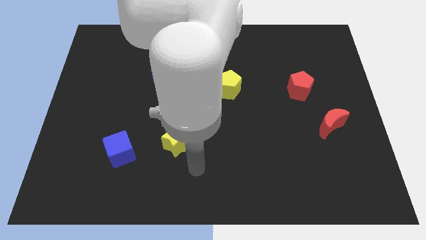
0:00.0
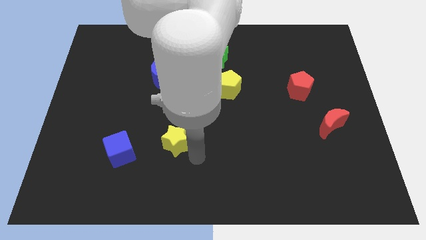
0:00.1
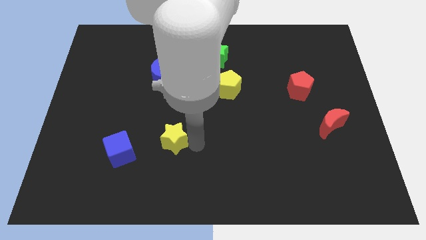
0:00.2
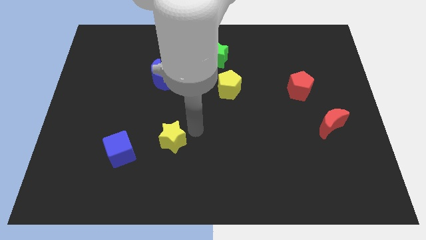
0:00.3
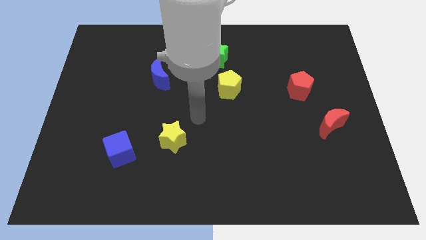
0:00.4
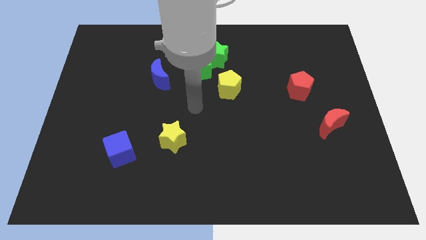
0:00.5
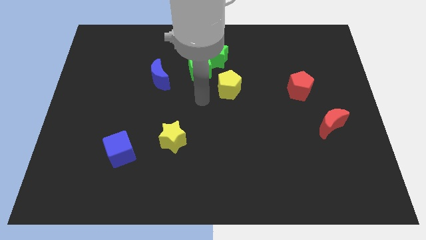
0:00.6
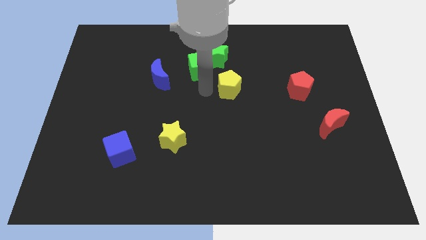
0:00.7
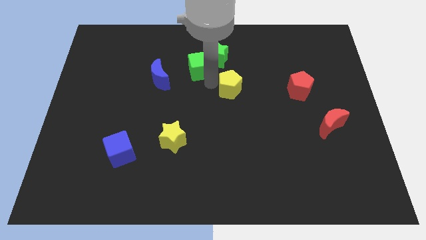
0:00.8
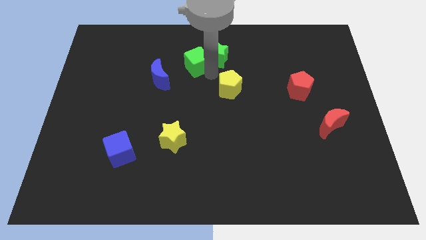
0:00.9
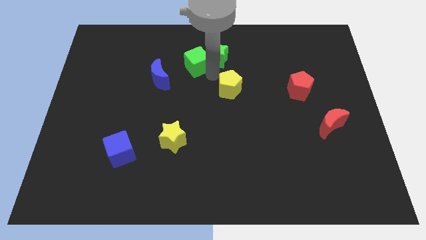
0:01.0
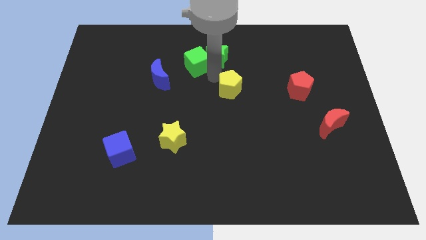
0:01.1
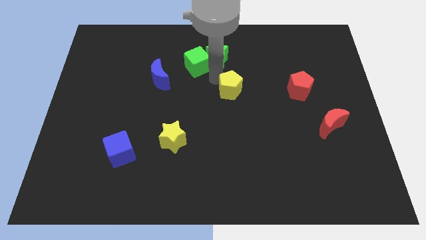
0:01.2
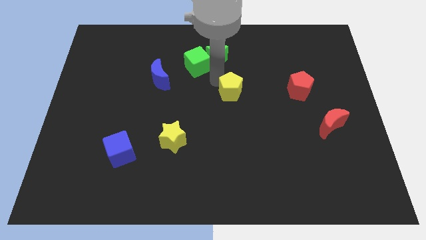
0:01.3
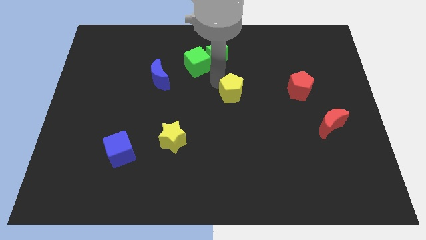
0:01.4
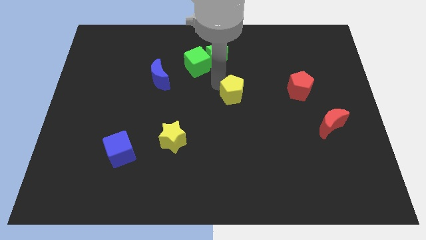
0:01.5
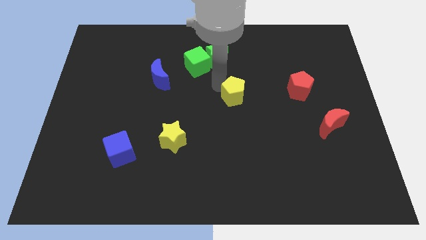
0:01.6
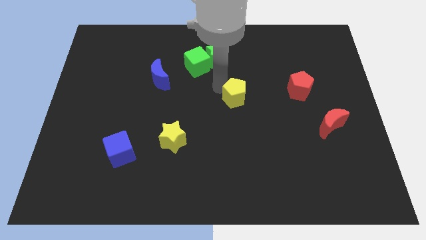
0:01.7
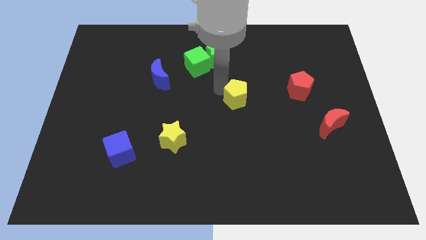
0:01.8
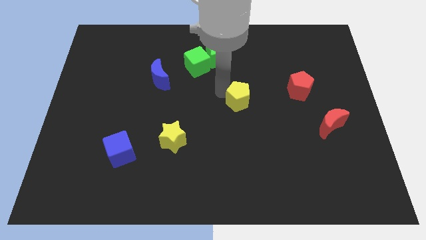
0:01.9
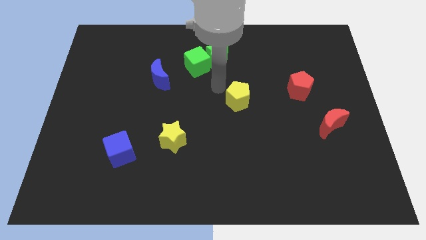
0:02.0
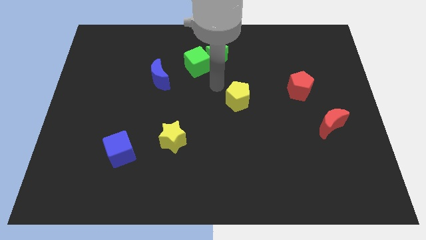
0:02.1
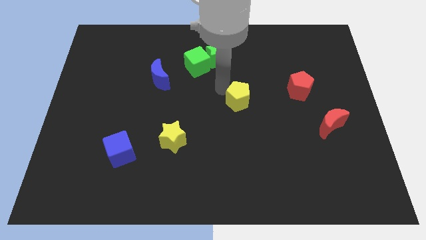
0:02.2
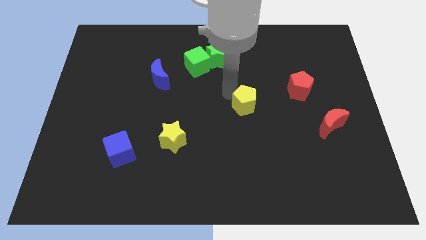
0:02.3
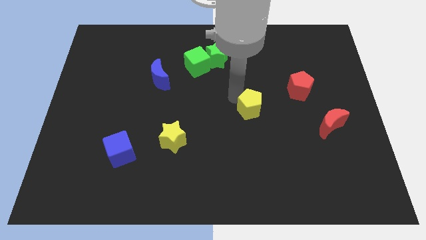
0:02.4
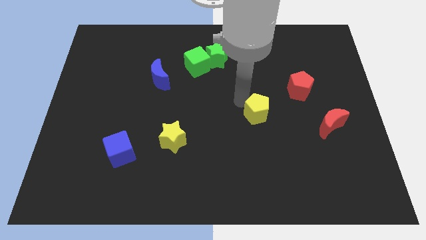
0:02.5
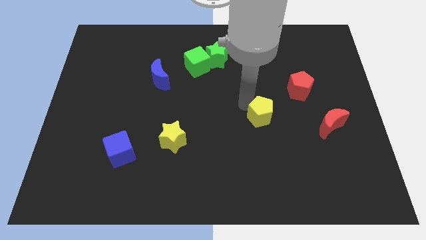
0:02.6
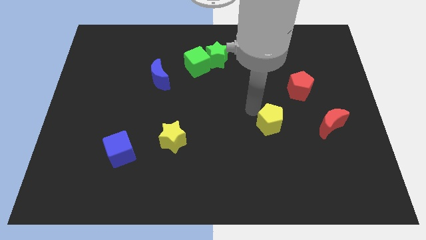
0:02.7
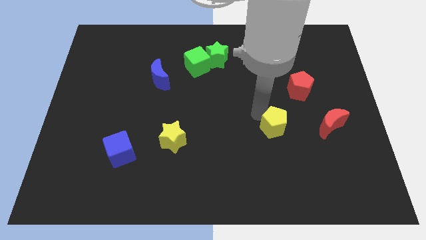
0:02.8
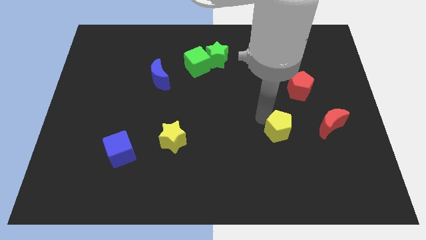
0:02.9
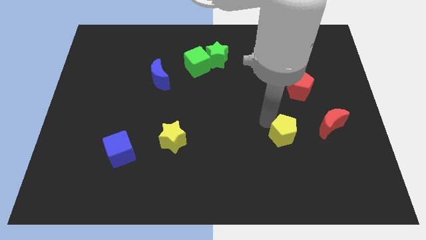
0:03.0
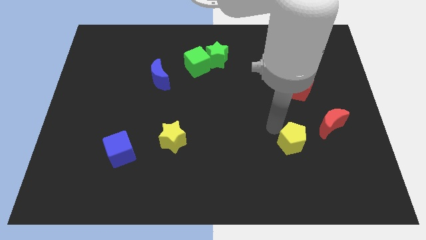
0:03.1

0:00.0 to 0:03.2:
move the yellow pentagon down and then to the right

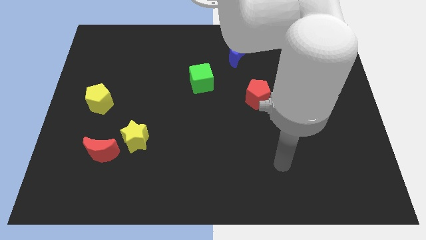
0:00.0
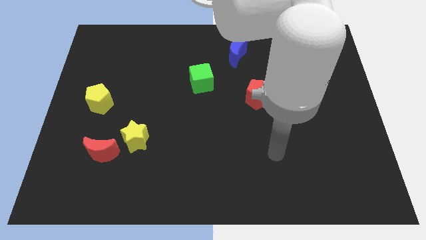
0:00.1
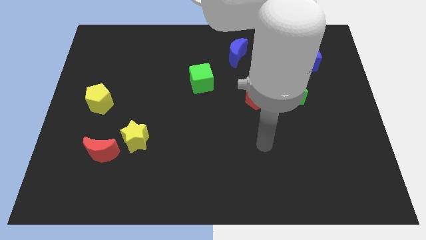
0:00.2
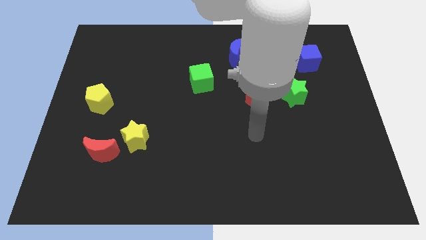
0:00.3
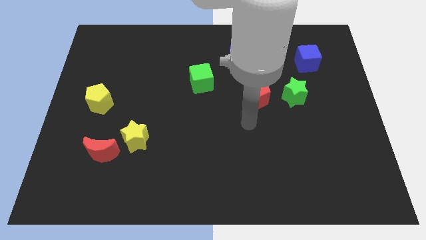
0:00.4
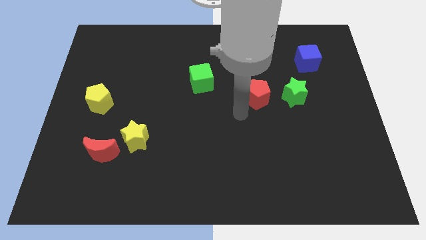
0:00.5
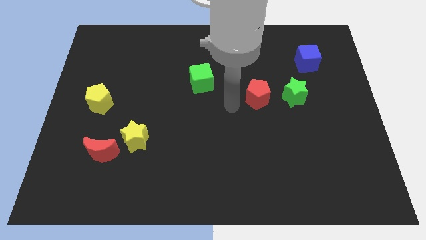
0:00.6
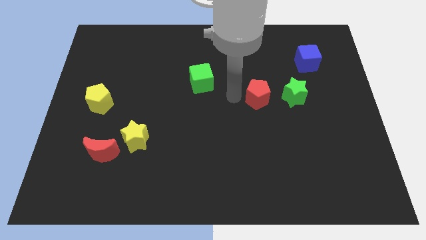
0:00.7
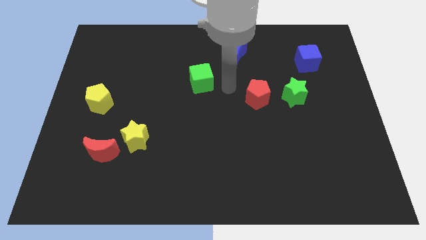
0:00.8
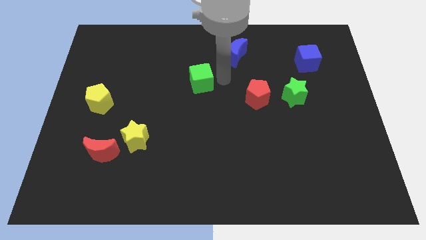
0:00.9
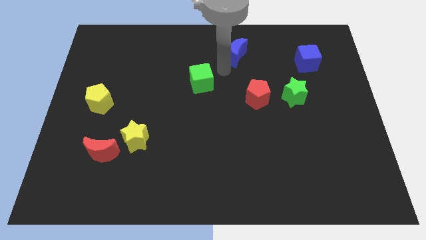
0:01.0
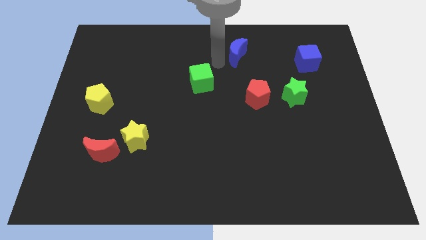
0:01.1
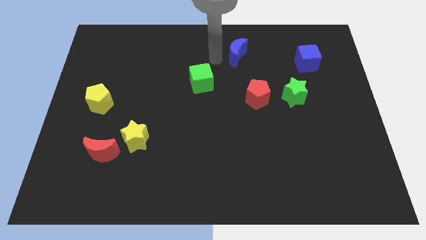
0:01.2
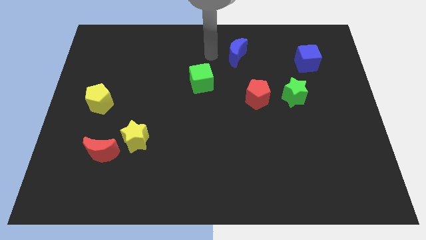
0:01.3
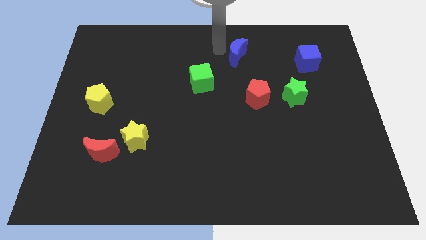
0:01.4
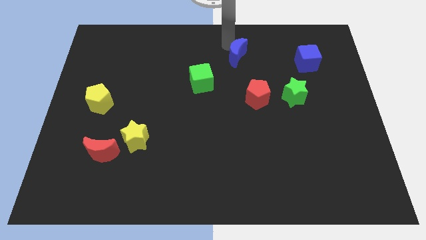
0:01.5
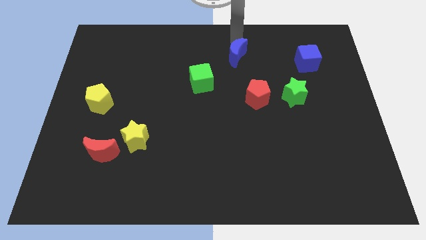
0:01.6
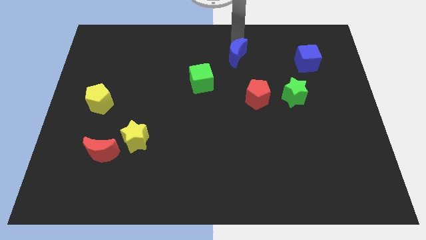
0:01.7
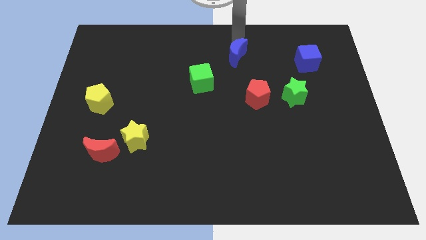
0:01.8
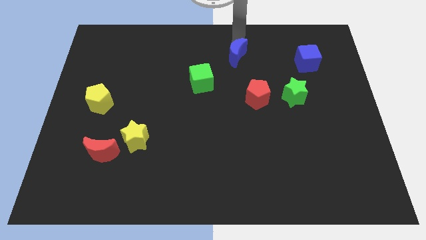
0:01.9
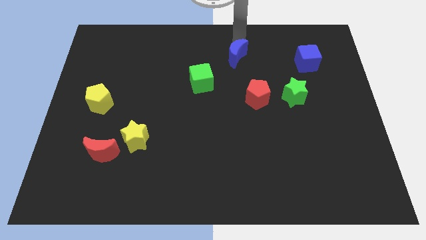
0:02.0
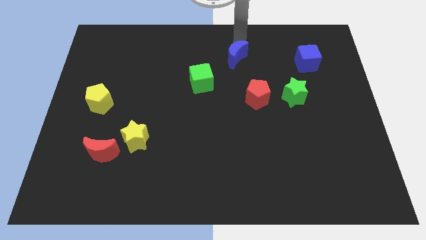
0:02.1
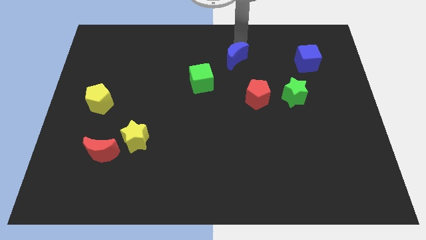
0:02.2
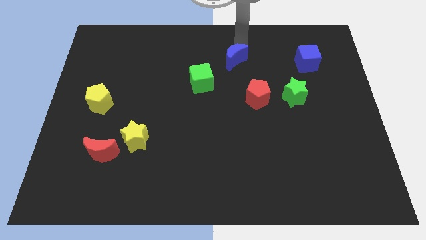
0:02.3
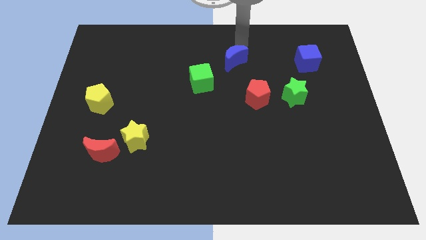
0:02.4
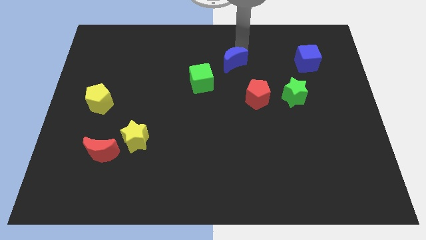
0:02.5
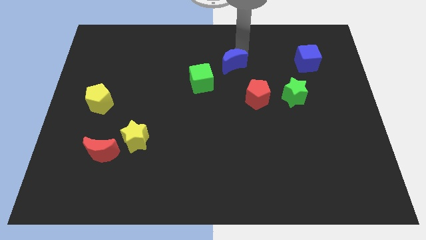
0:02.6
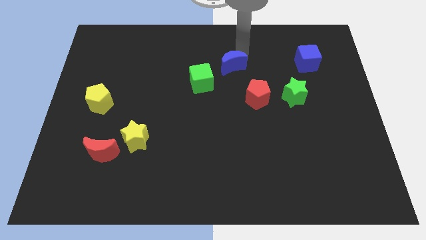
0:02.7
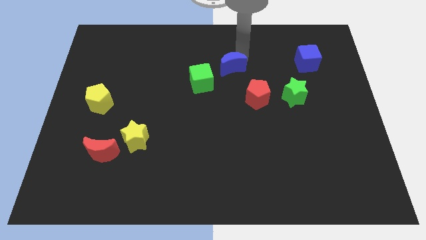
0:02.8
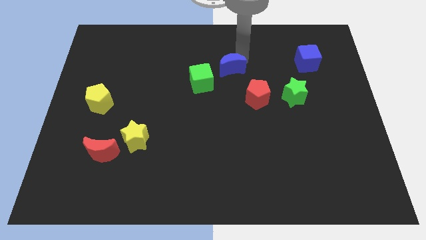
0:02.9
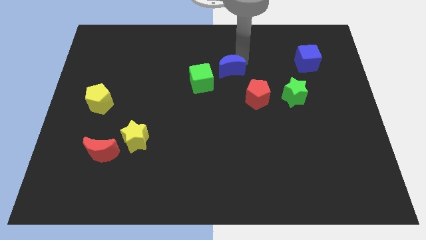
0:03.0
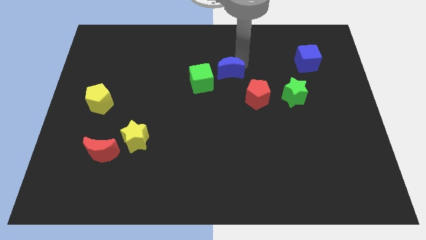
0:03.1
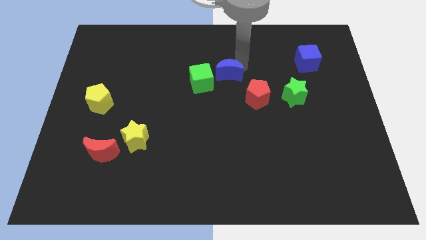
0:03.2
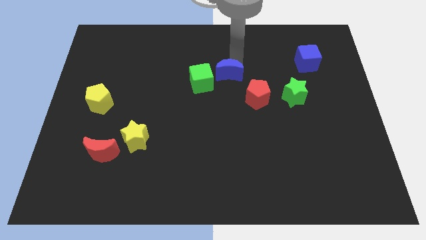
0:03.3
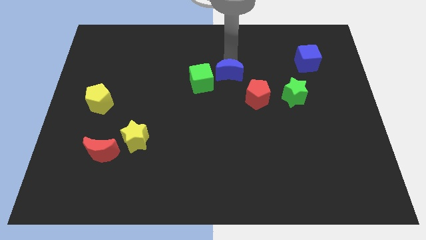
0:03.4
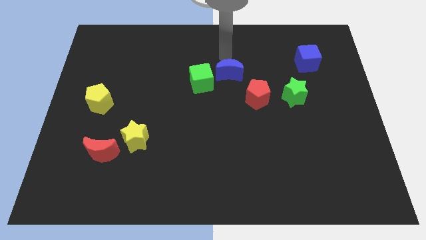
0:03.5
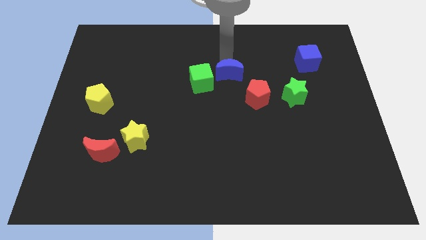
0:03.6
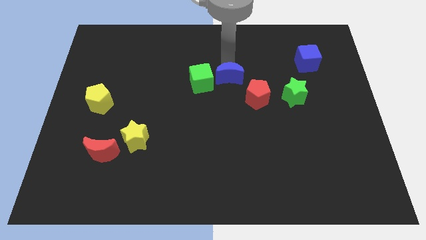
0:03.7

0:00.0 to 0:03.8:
push the blue moon slightly down

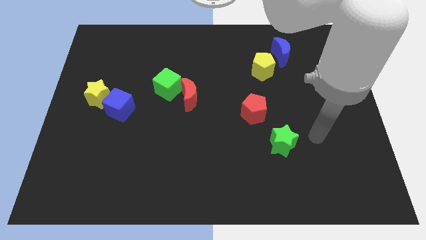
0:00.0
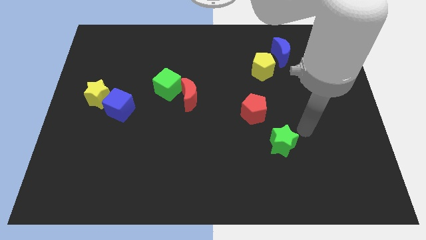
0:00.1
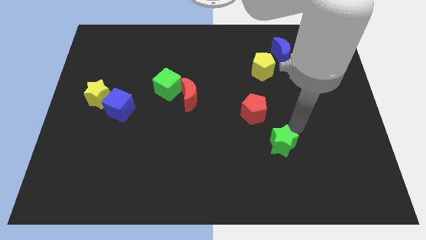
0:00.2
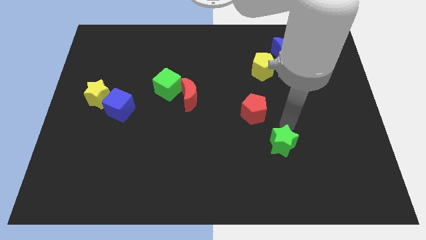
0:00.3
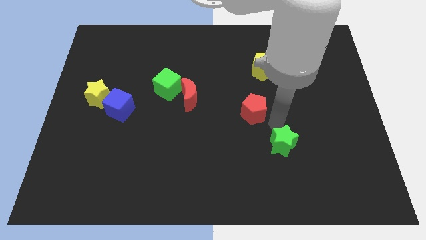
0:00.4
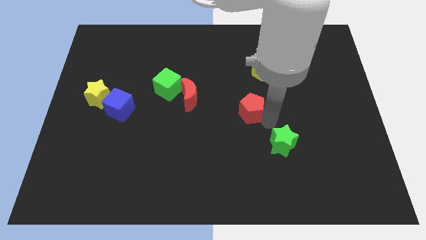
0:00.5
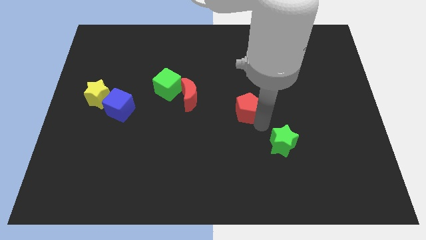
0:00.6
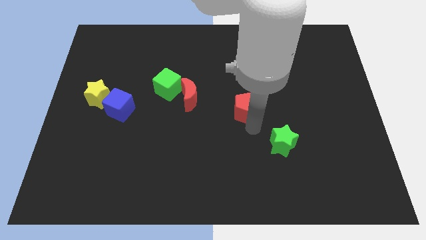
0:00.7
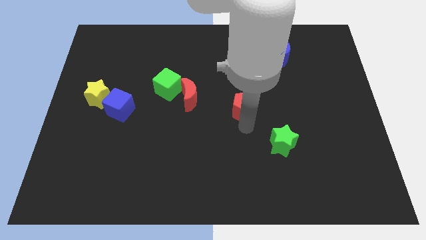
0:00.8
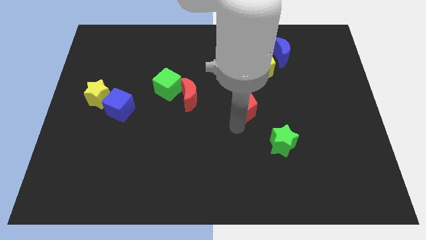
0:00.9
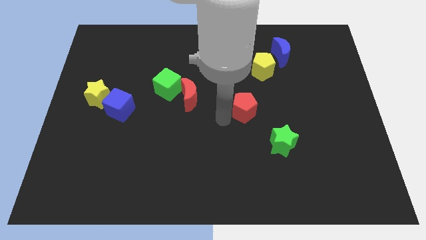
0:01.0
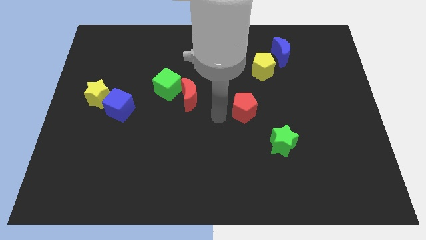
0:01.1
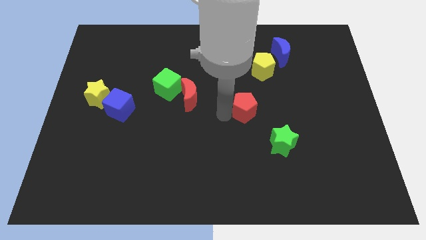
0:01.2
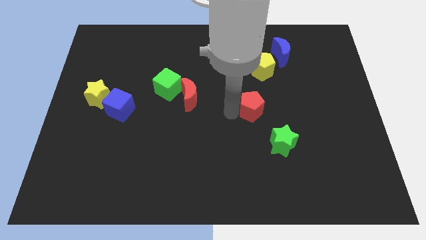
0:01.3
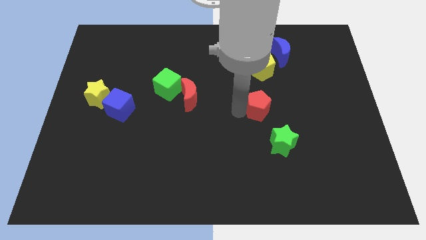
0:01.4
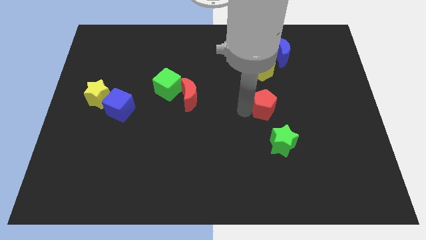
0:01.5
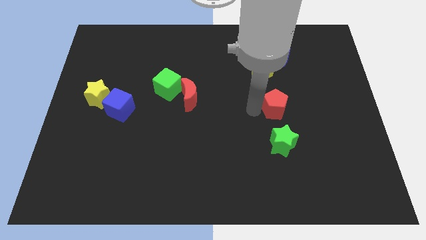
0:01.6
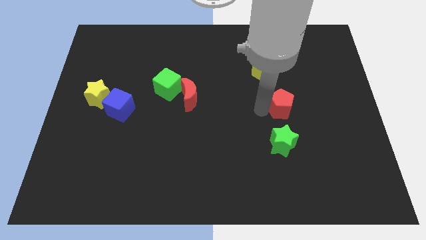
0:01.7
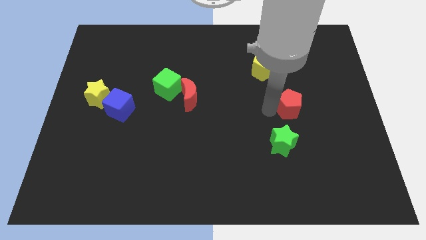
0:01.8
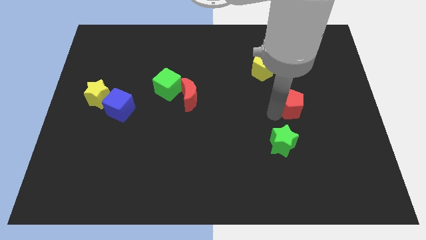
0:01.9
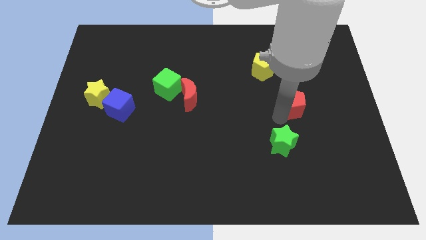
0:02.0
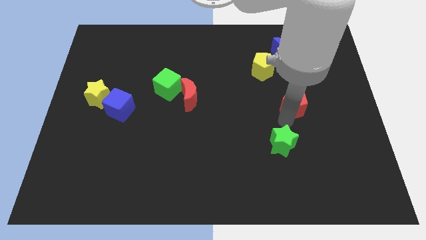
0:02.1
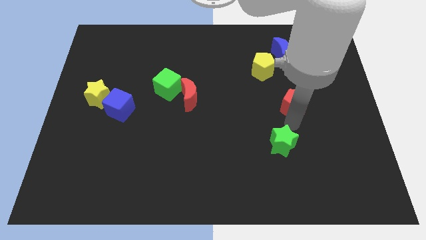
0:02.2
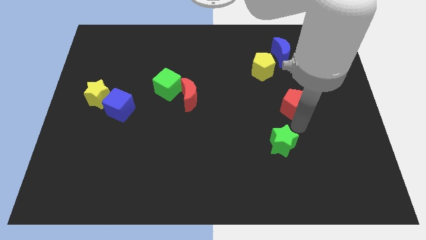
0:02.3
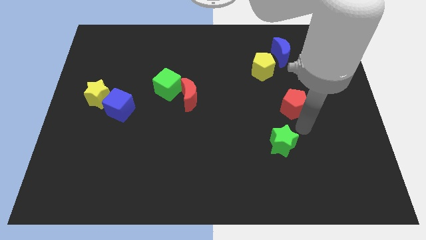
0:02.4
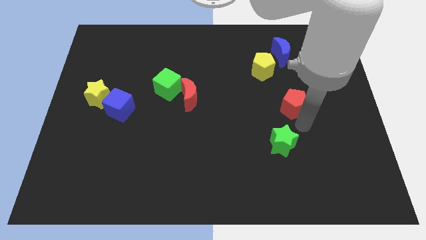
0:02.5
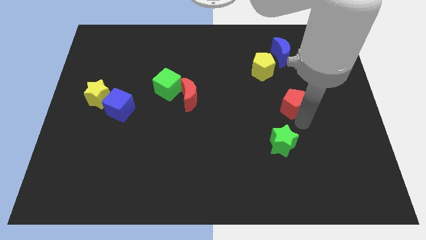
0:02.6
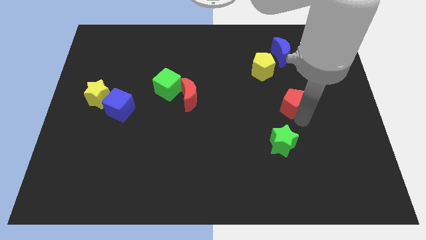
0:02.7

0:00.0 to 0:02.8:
move the red pentagon a little up and right
